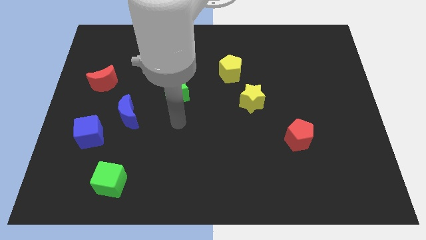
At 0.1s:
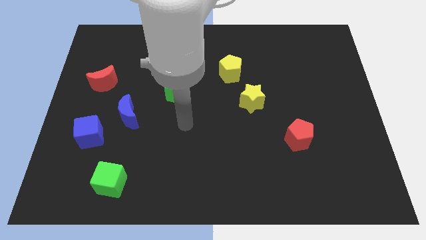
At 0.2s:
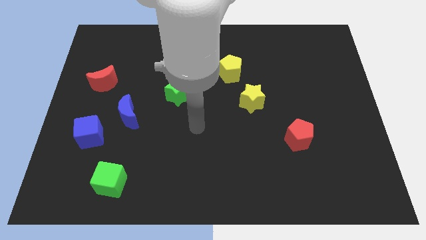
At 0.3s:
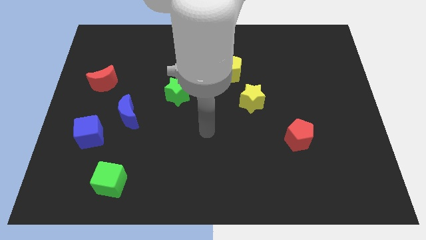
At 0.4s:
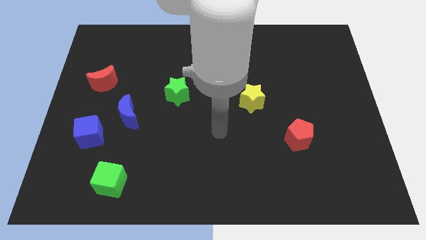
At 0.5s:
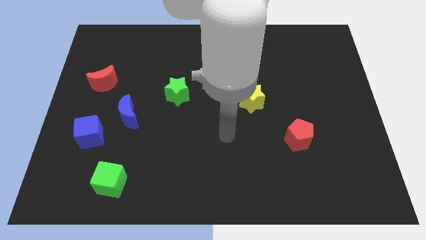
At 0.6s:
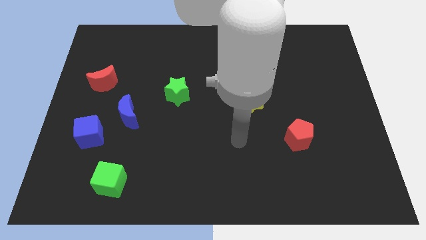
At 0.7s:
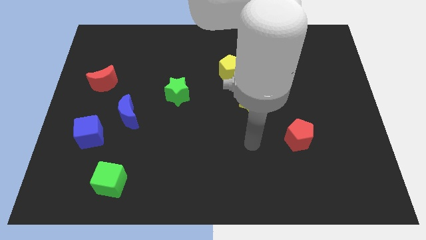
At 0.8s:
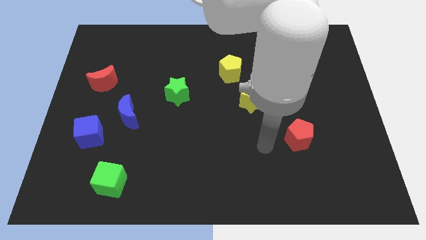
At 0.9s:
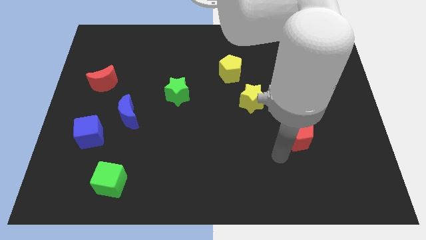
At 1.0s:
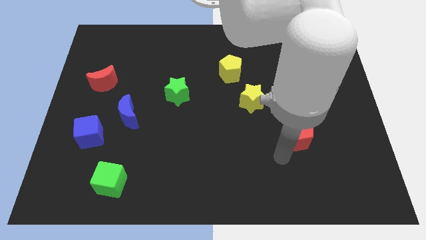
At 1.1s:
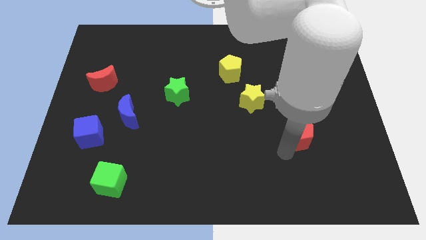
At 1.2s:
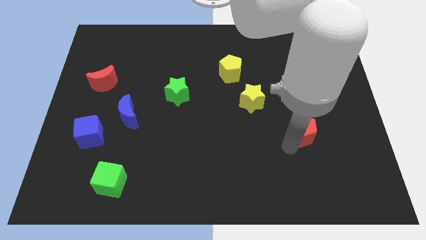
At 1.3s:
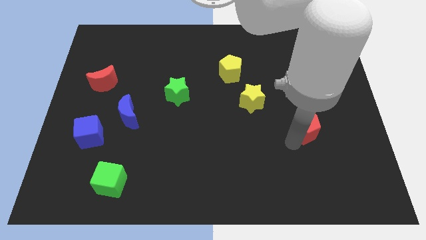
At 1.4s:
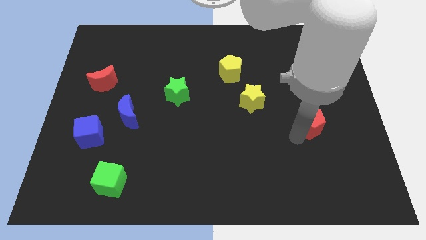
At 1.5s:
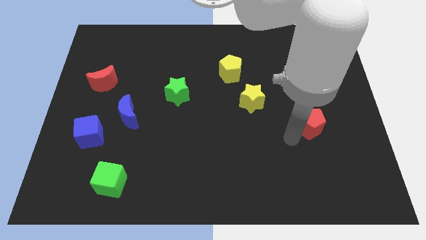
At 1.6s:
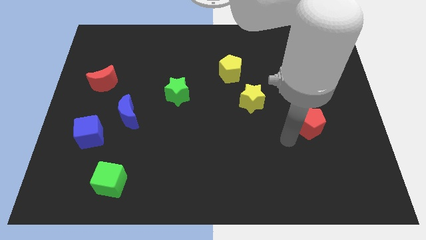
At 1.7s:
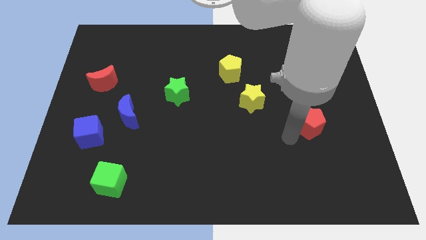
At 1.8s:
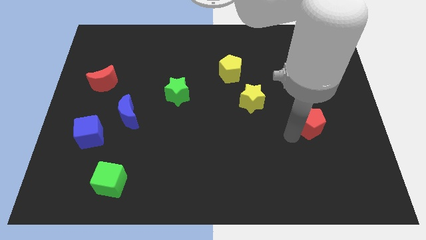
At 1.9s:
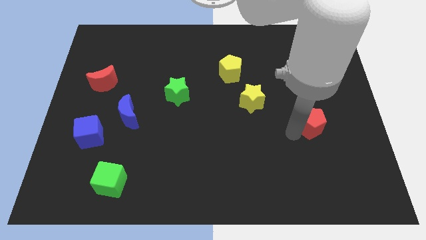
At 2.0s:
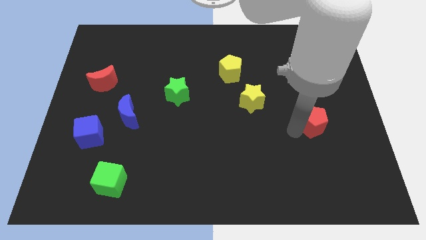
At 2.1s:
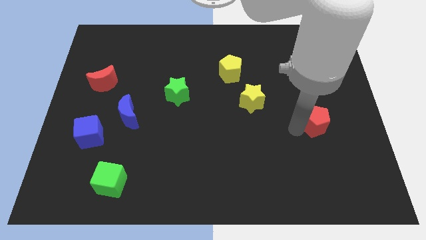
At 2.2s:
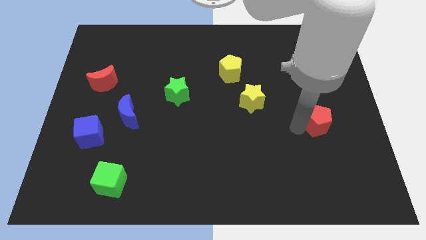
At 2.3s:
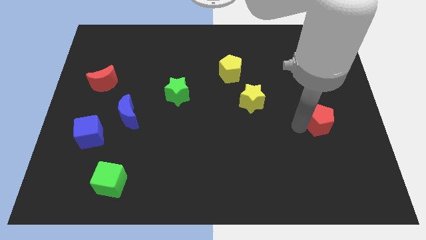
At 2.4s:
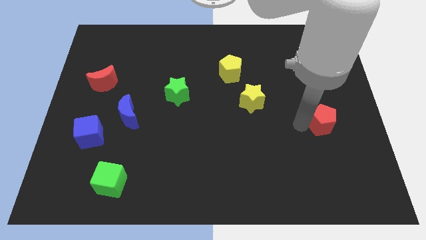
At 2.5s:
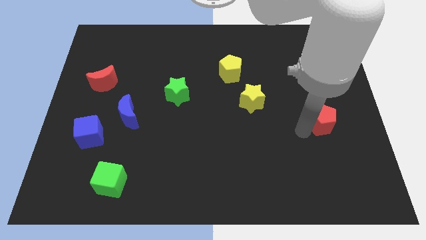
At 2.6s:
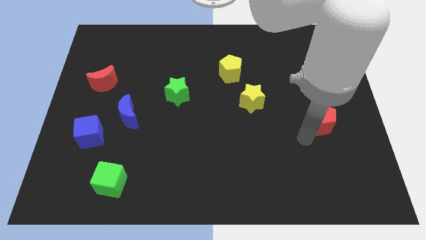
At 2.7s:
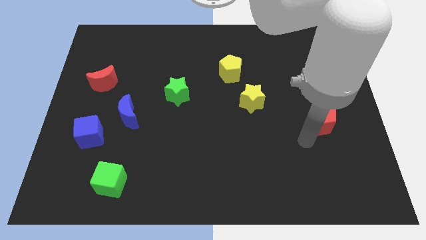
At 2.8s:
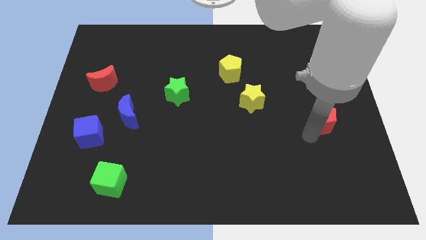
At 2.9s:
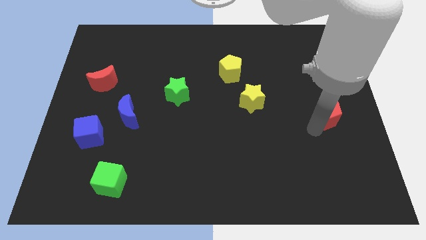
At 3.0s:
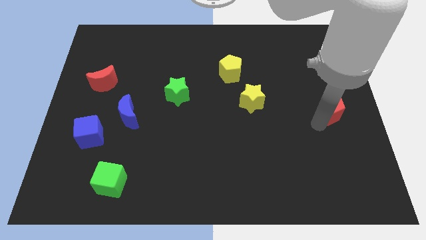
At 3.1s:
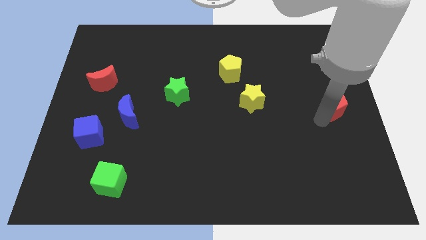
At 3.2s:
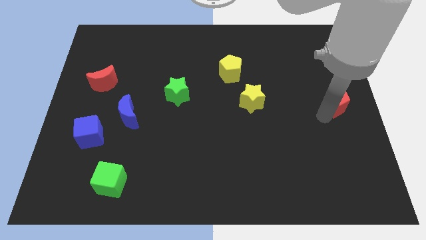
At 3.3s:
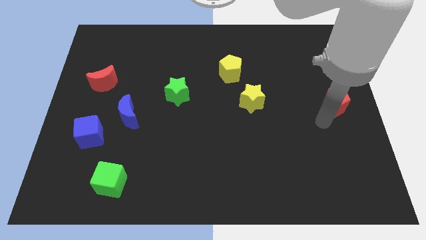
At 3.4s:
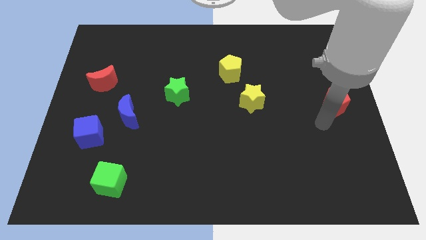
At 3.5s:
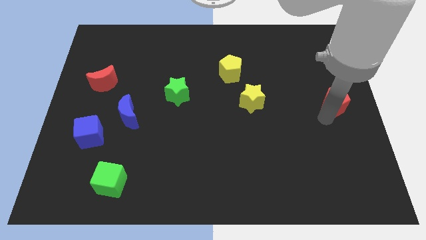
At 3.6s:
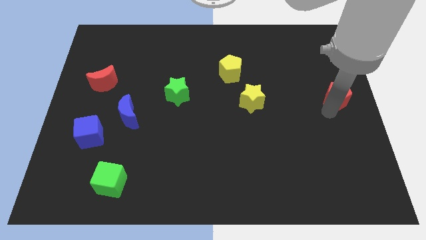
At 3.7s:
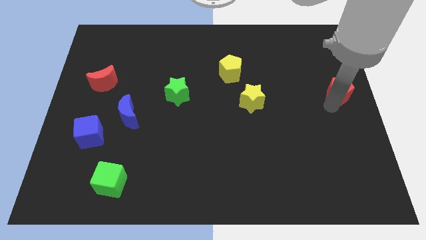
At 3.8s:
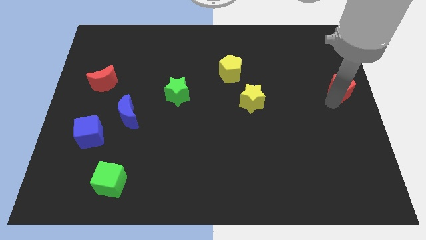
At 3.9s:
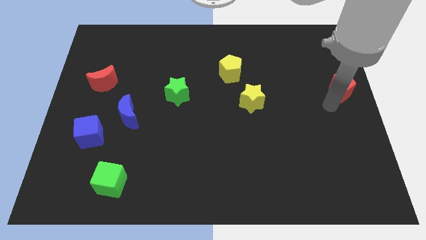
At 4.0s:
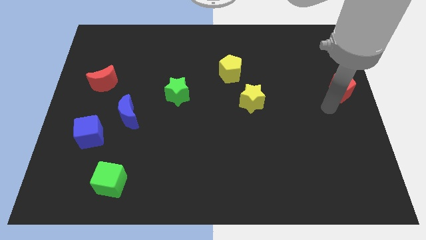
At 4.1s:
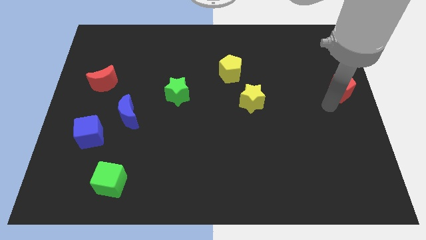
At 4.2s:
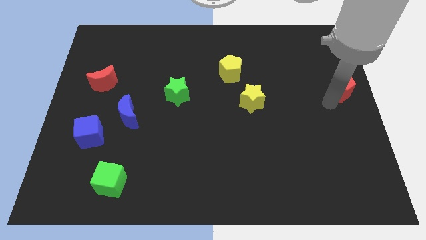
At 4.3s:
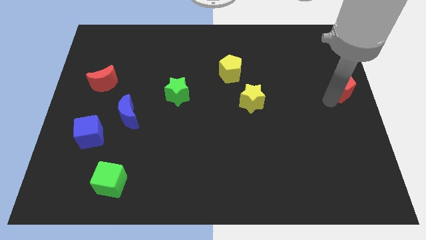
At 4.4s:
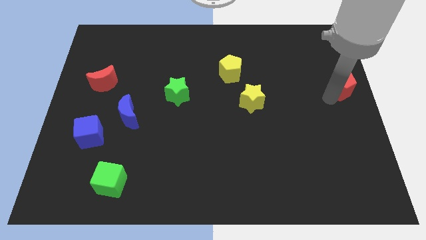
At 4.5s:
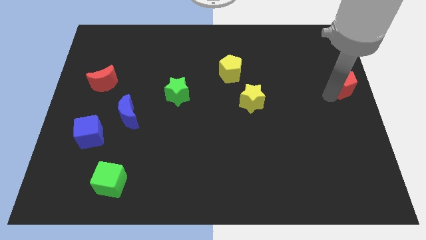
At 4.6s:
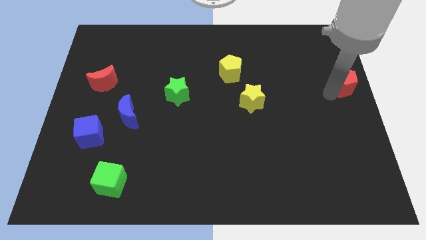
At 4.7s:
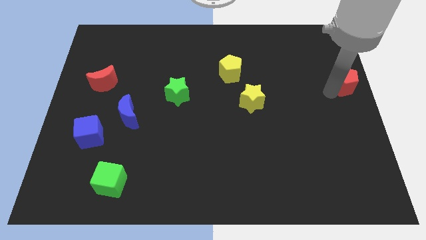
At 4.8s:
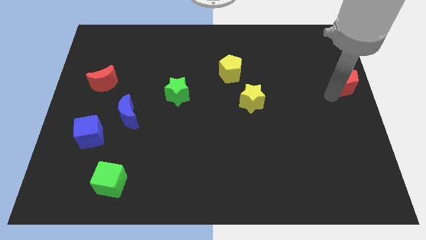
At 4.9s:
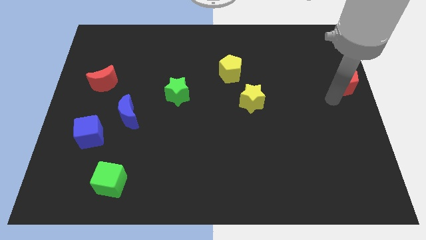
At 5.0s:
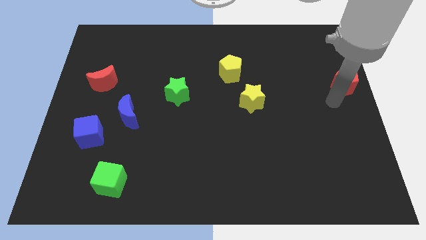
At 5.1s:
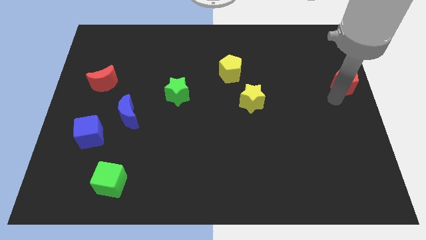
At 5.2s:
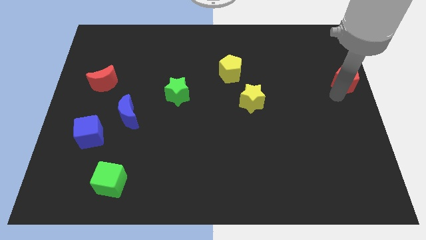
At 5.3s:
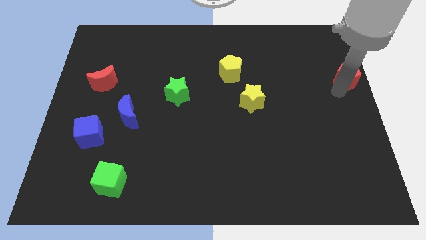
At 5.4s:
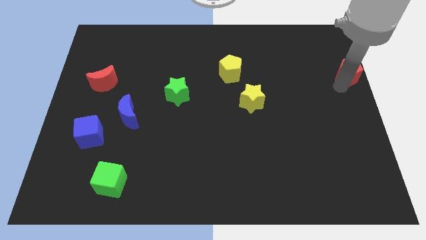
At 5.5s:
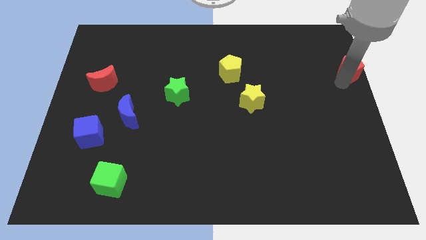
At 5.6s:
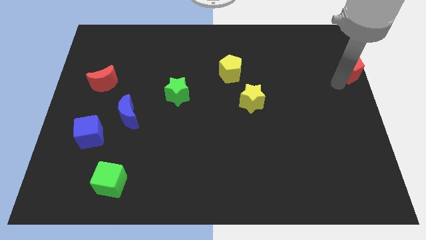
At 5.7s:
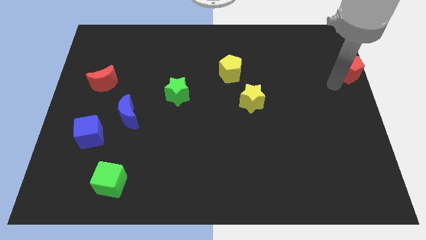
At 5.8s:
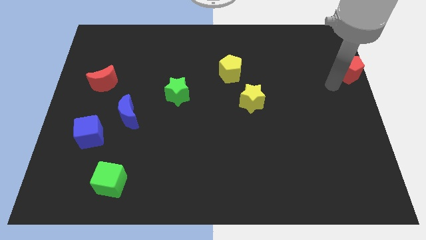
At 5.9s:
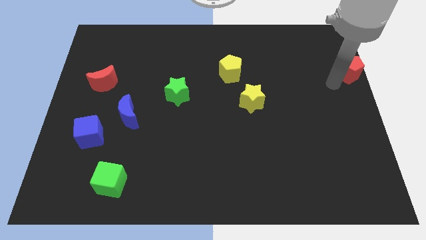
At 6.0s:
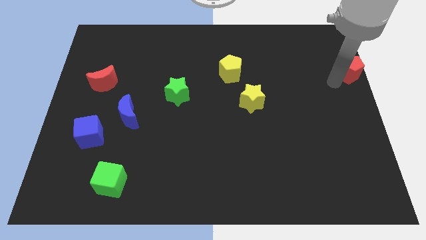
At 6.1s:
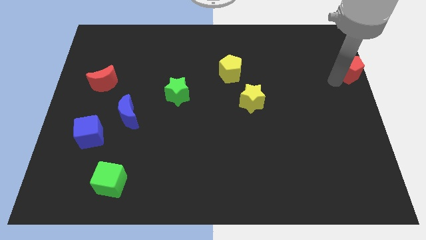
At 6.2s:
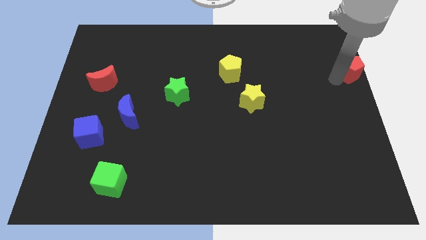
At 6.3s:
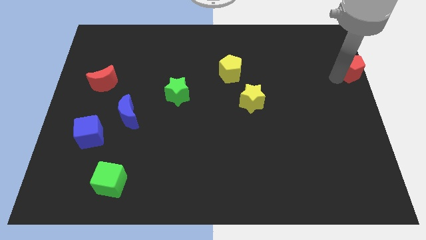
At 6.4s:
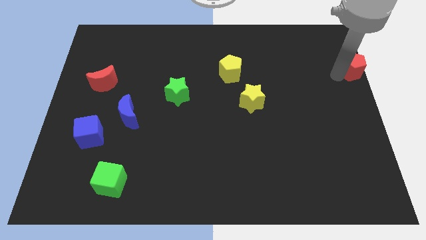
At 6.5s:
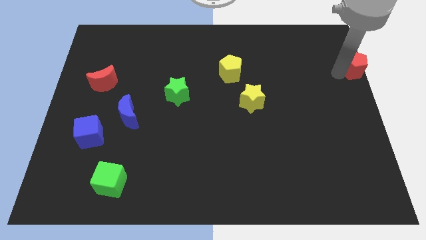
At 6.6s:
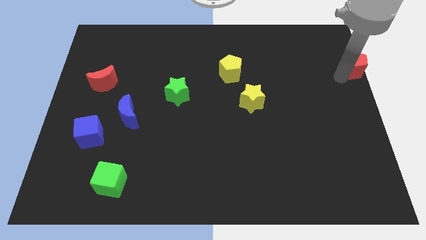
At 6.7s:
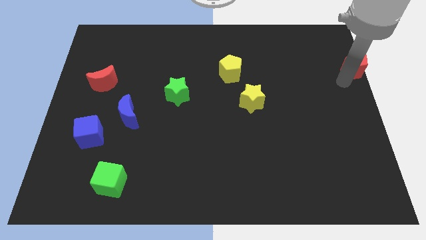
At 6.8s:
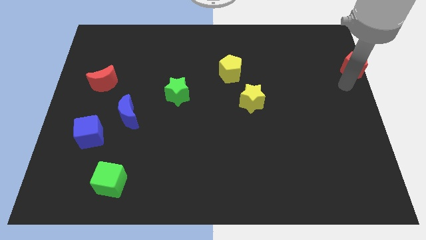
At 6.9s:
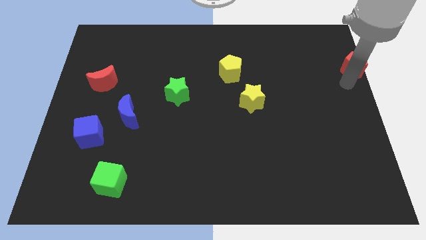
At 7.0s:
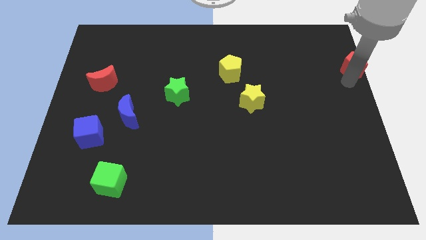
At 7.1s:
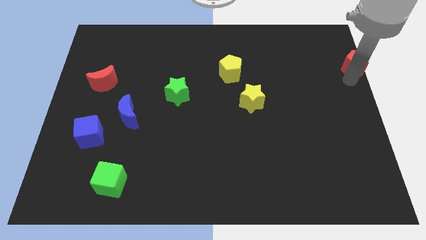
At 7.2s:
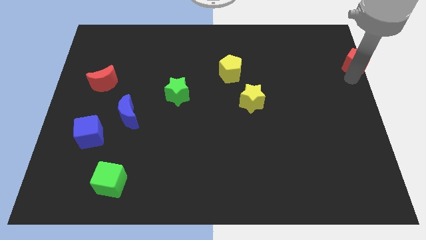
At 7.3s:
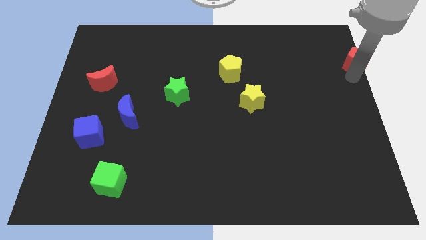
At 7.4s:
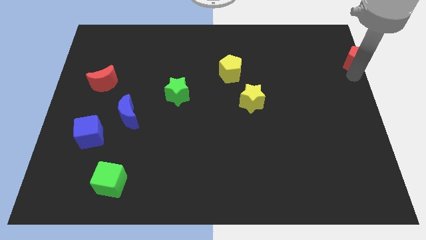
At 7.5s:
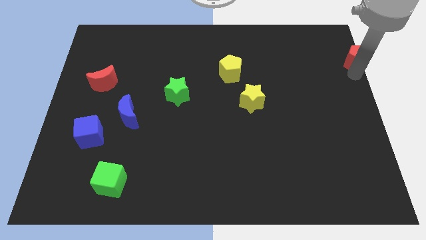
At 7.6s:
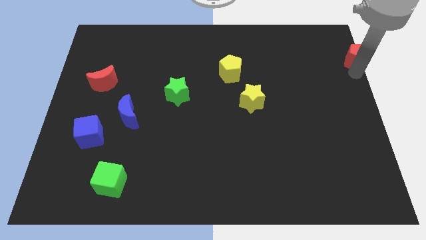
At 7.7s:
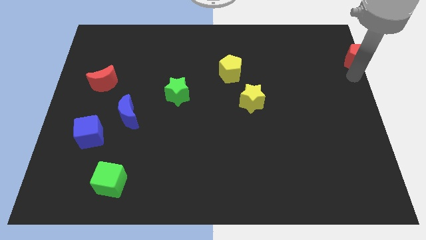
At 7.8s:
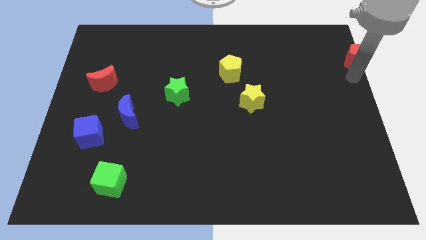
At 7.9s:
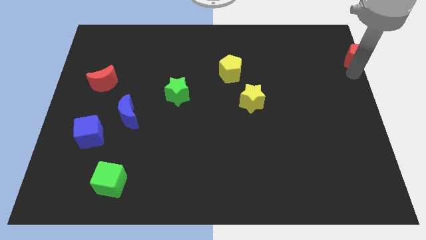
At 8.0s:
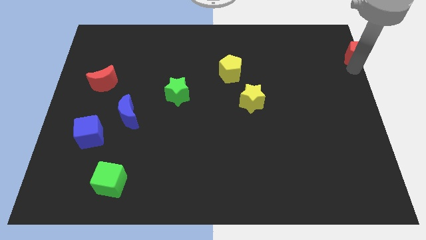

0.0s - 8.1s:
move the red pentagon to the top right of the board
